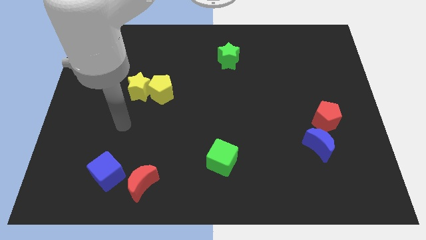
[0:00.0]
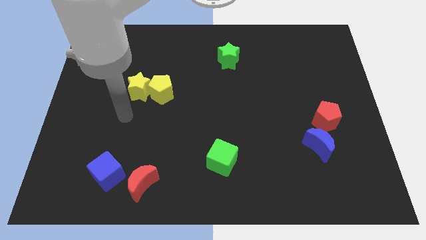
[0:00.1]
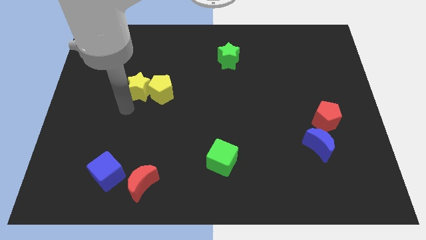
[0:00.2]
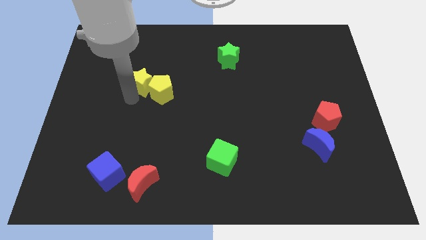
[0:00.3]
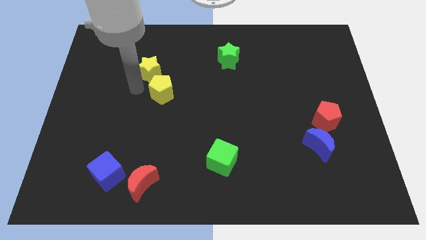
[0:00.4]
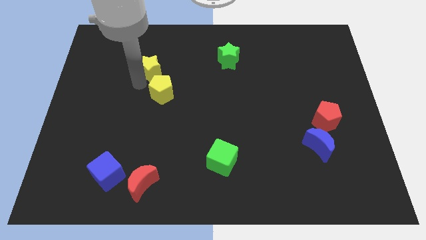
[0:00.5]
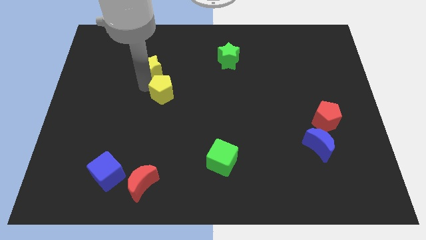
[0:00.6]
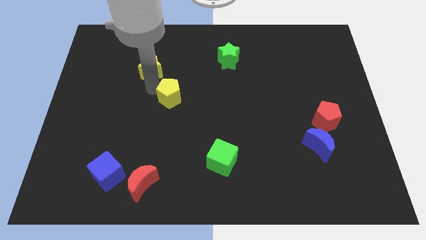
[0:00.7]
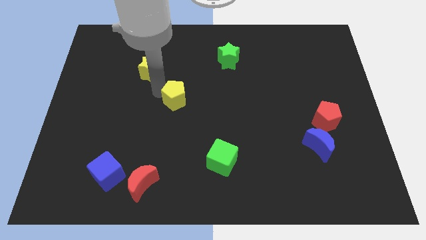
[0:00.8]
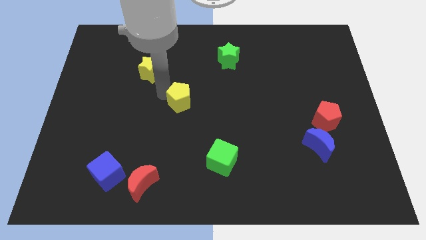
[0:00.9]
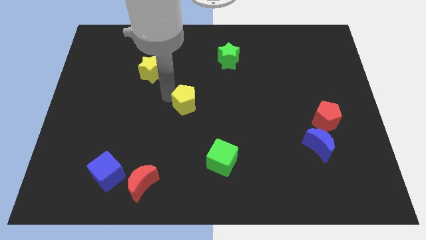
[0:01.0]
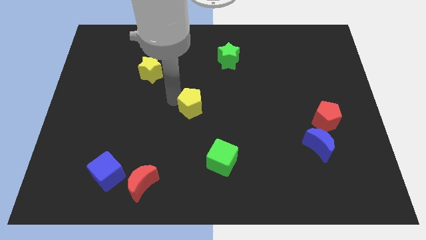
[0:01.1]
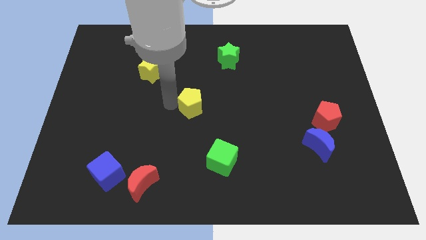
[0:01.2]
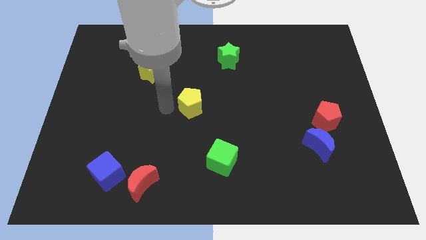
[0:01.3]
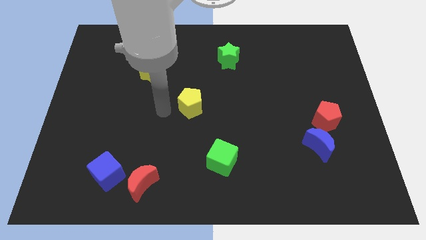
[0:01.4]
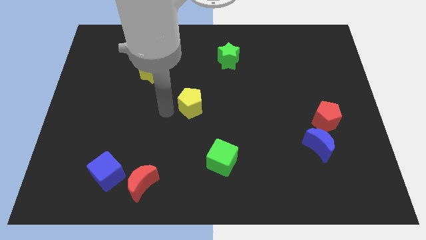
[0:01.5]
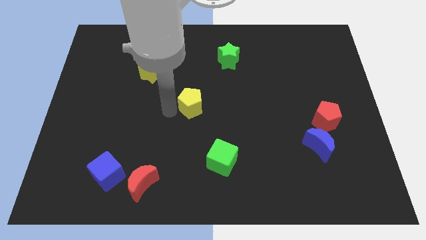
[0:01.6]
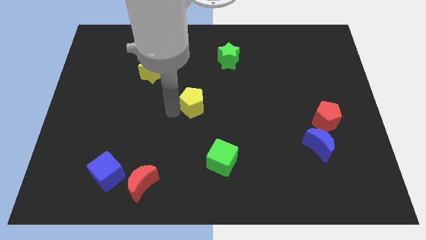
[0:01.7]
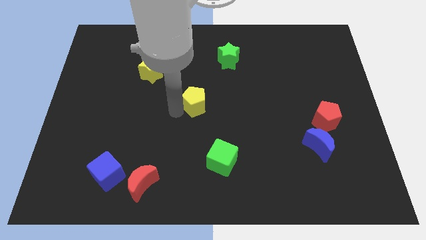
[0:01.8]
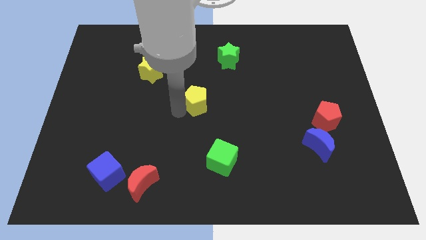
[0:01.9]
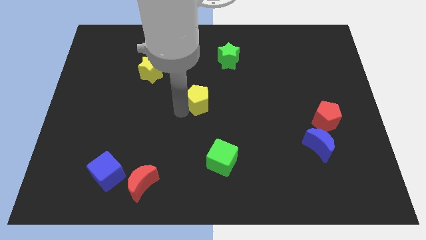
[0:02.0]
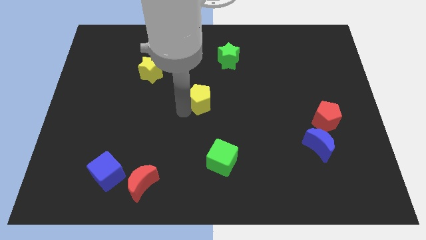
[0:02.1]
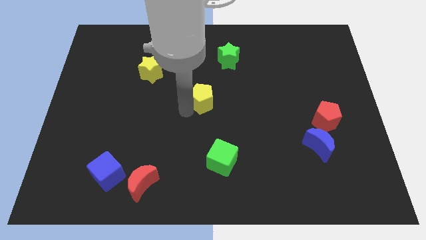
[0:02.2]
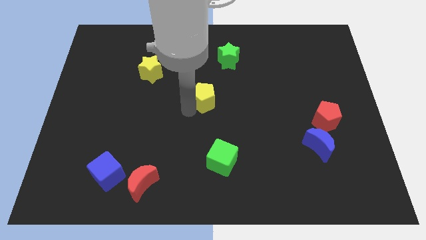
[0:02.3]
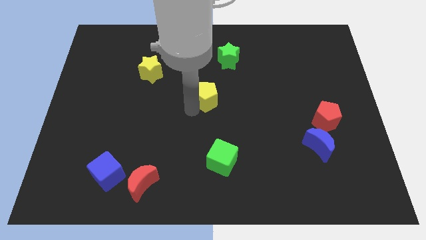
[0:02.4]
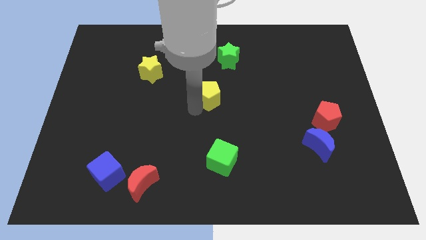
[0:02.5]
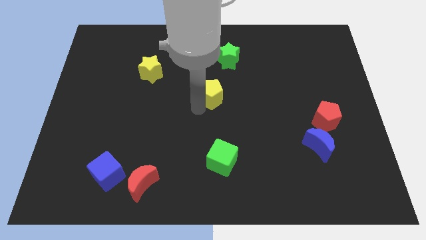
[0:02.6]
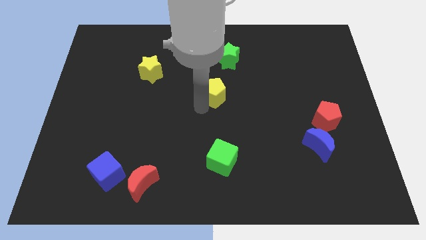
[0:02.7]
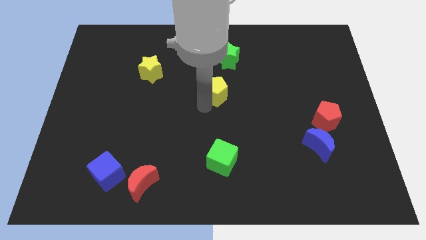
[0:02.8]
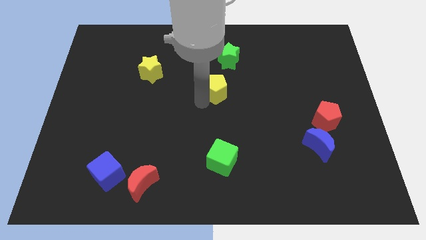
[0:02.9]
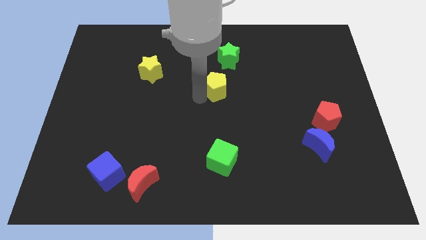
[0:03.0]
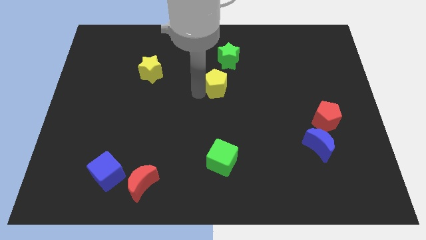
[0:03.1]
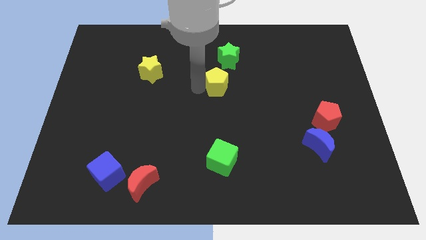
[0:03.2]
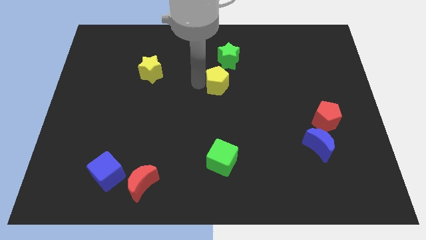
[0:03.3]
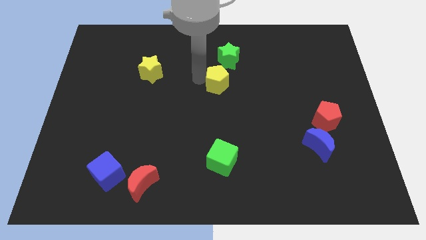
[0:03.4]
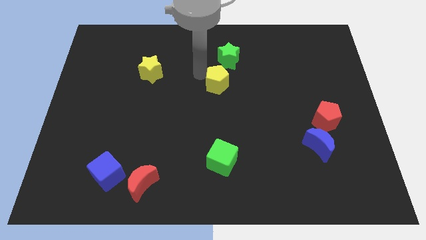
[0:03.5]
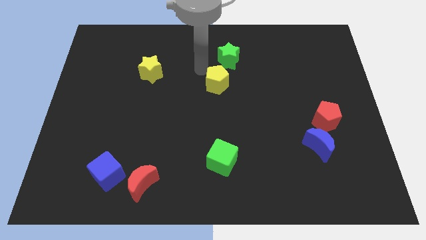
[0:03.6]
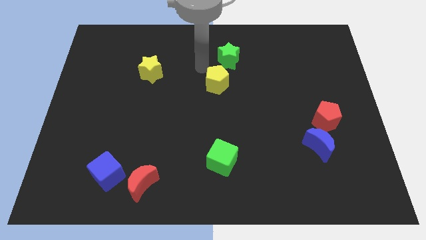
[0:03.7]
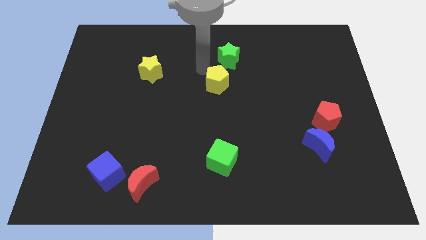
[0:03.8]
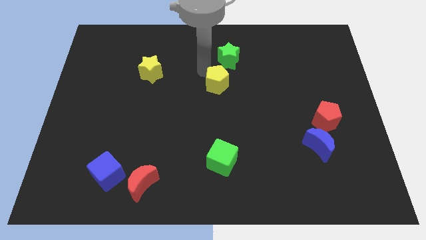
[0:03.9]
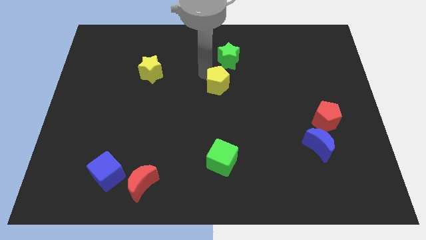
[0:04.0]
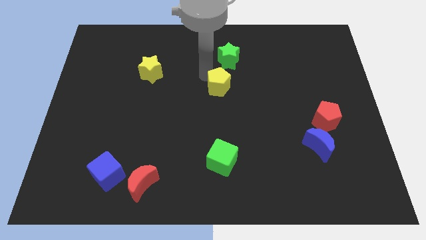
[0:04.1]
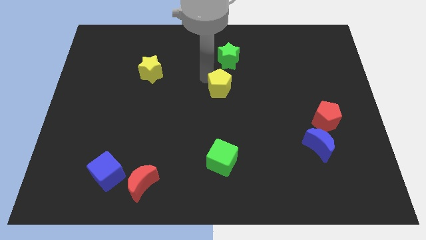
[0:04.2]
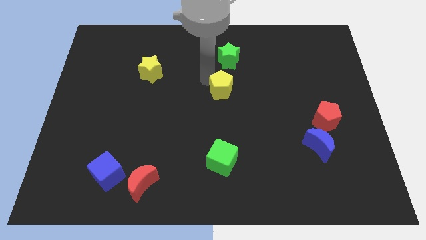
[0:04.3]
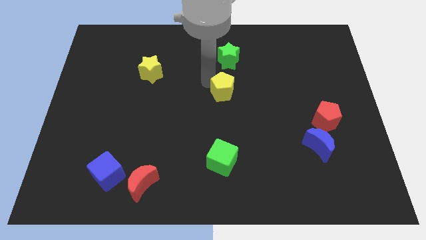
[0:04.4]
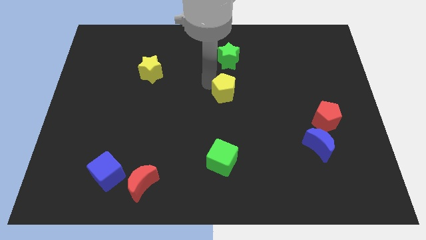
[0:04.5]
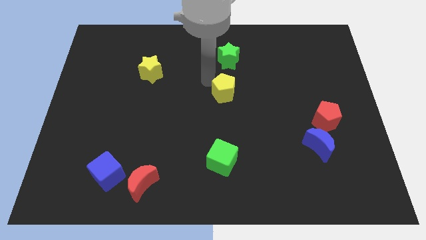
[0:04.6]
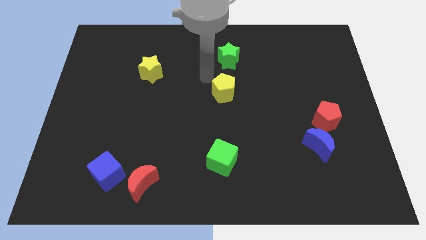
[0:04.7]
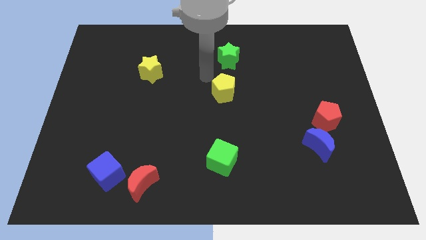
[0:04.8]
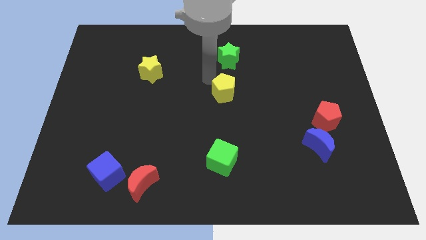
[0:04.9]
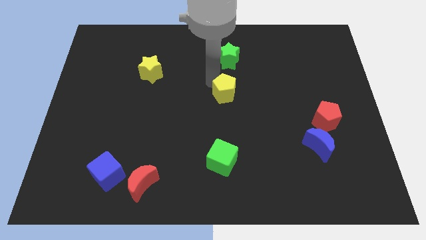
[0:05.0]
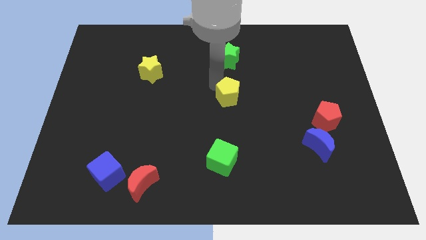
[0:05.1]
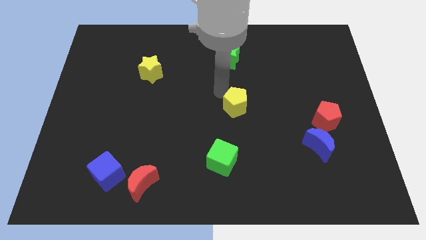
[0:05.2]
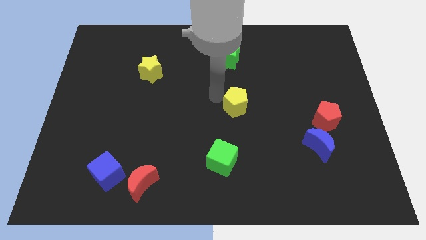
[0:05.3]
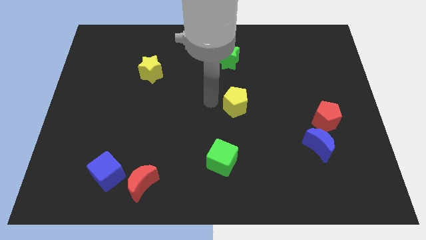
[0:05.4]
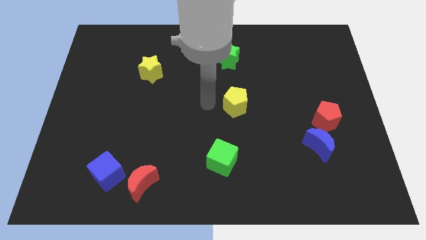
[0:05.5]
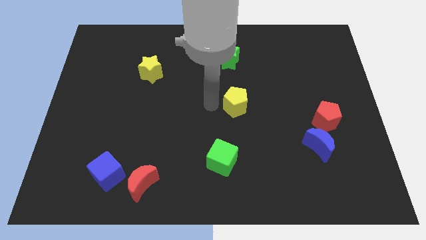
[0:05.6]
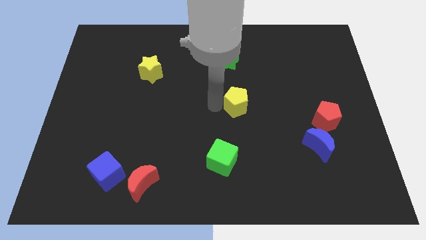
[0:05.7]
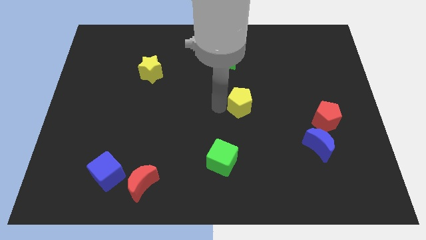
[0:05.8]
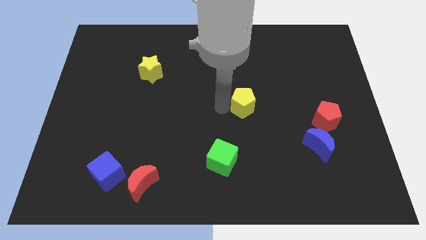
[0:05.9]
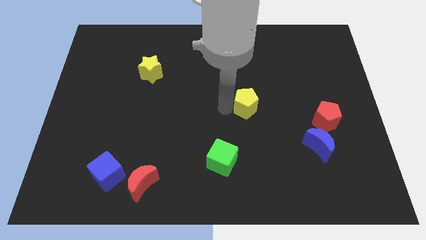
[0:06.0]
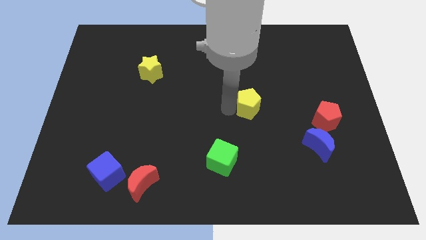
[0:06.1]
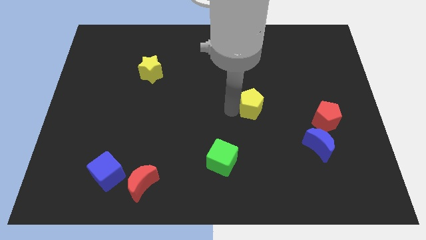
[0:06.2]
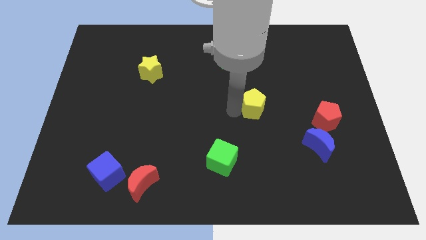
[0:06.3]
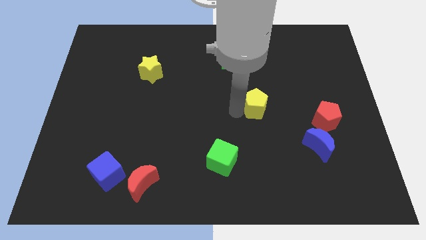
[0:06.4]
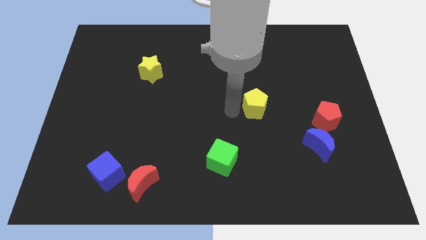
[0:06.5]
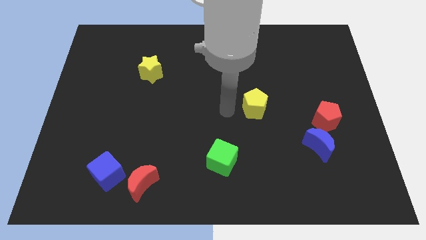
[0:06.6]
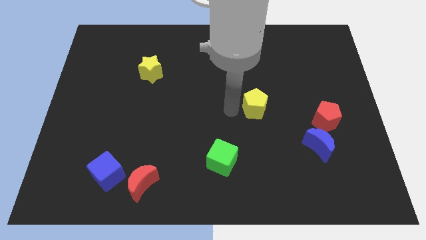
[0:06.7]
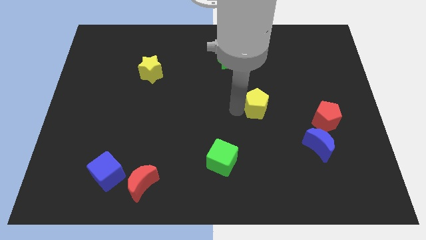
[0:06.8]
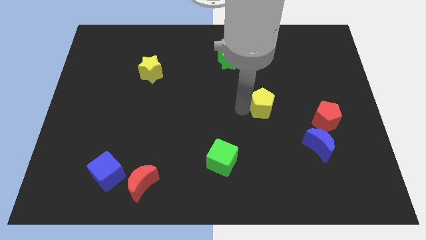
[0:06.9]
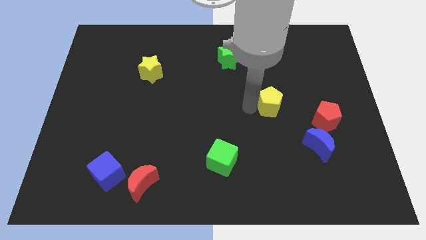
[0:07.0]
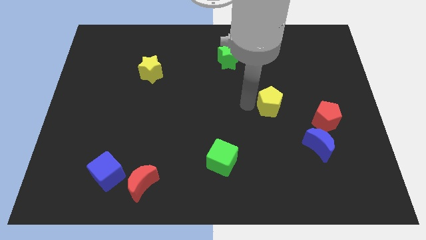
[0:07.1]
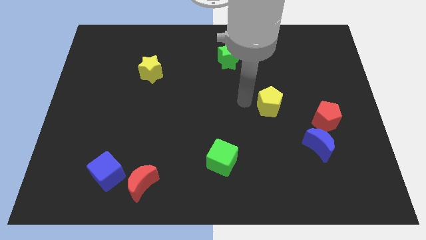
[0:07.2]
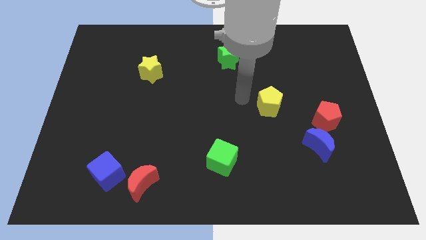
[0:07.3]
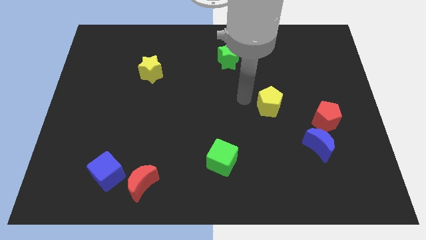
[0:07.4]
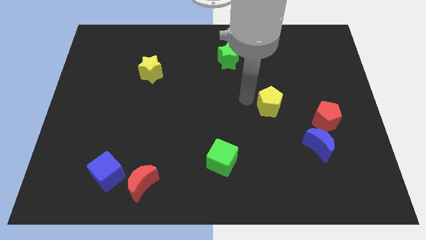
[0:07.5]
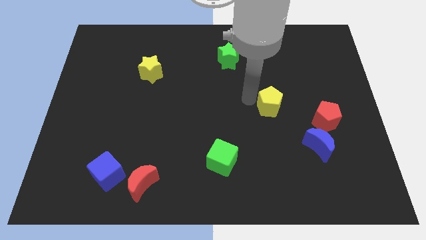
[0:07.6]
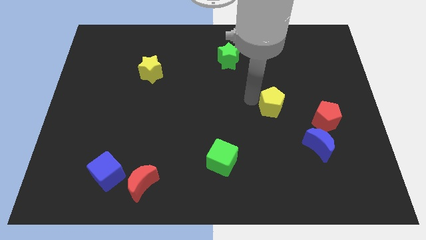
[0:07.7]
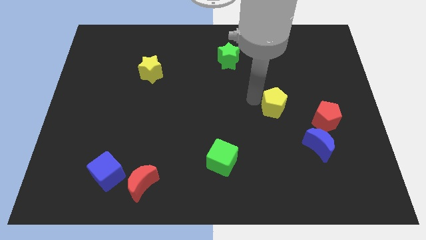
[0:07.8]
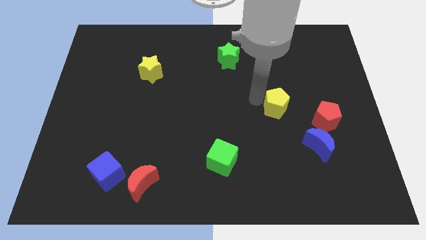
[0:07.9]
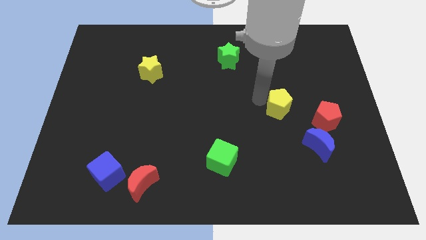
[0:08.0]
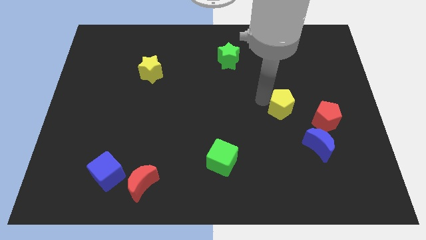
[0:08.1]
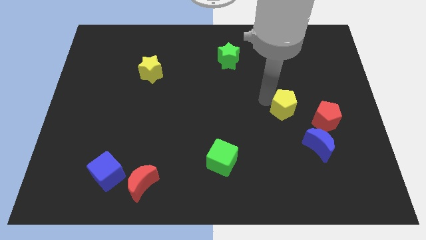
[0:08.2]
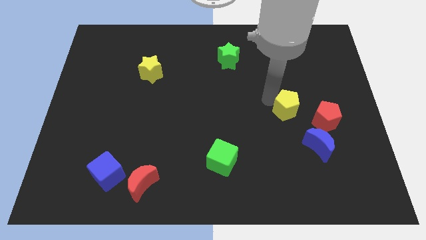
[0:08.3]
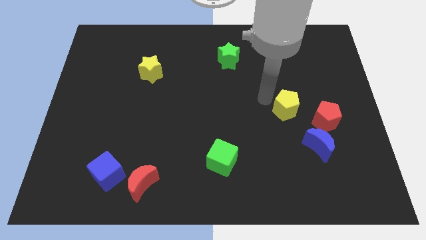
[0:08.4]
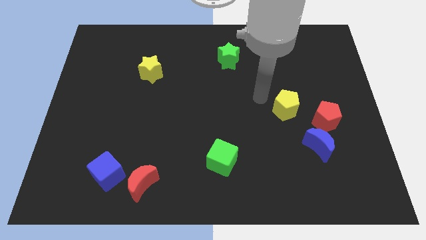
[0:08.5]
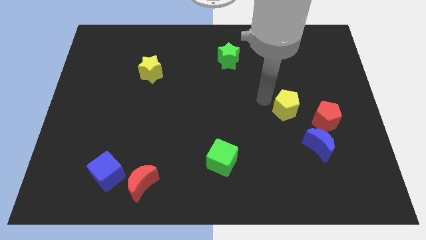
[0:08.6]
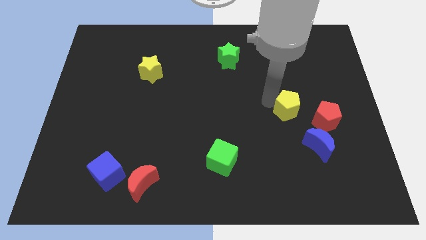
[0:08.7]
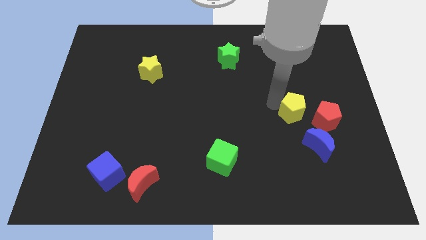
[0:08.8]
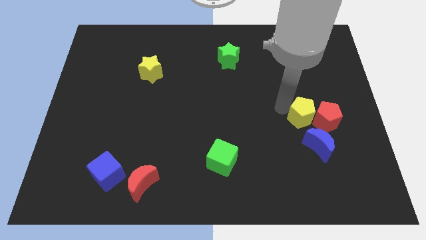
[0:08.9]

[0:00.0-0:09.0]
push the yellow pentagon towards the red pentagon
